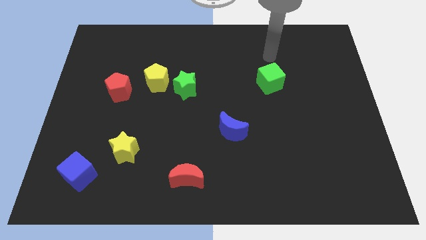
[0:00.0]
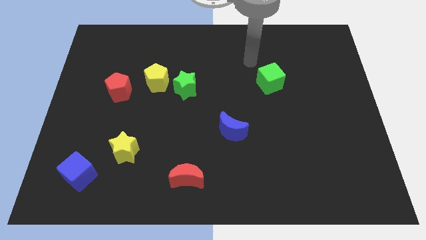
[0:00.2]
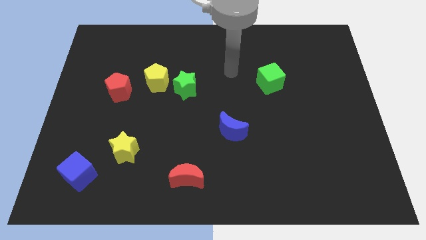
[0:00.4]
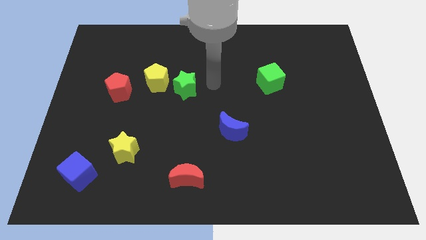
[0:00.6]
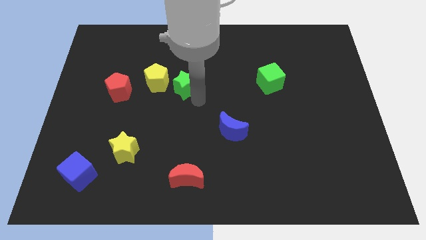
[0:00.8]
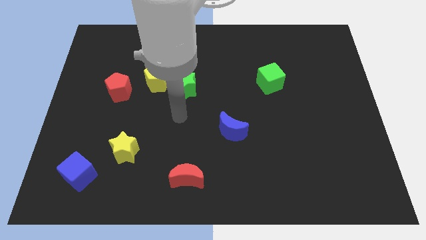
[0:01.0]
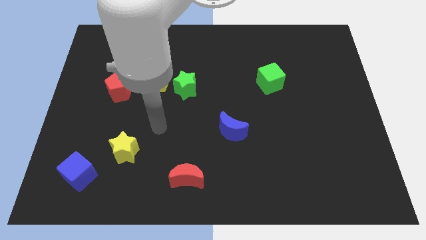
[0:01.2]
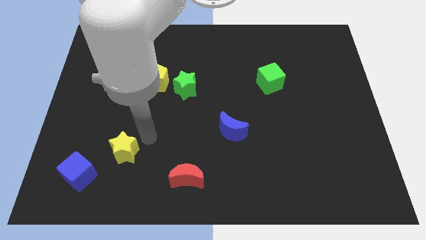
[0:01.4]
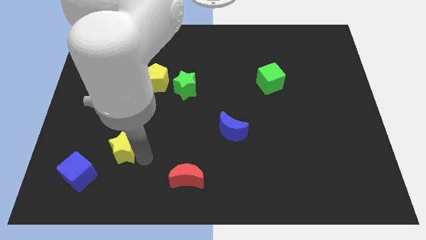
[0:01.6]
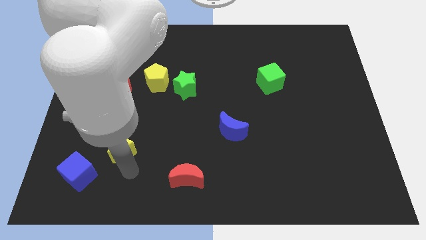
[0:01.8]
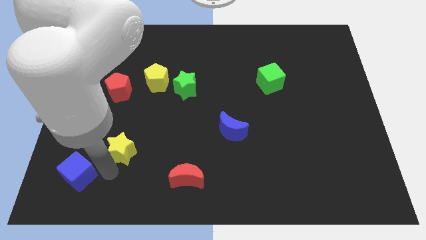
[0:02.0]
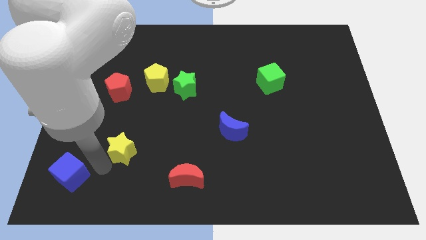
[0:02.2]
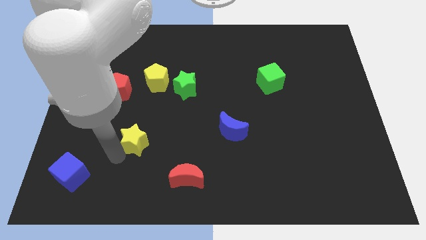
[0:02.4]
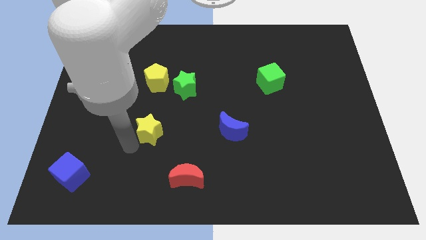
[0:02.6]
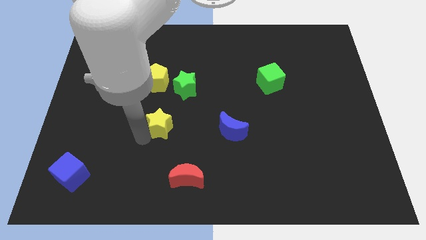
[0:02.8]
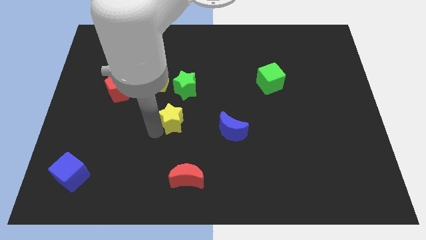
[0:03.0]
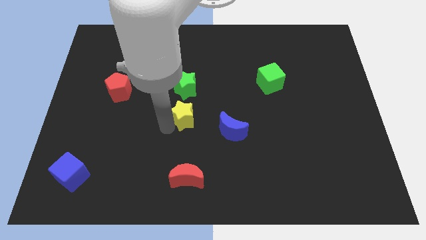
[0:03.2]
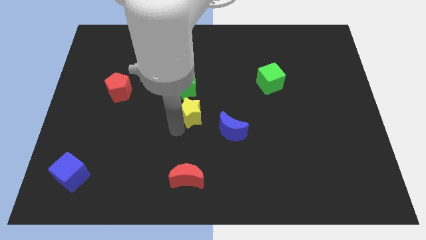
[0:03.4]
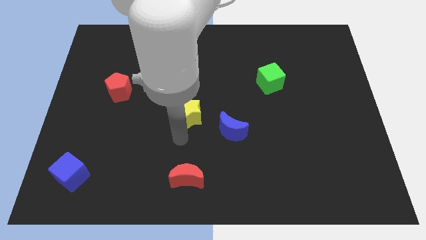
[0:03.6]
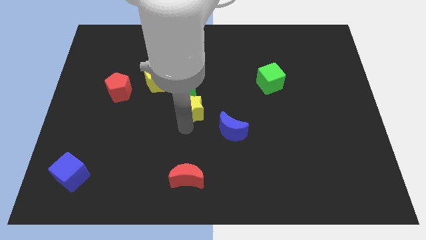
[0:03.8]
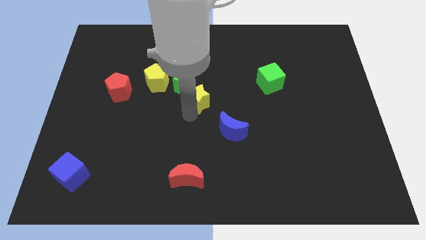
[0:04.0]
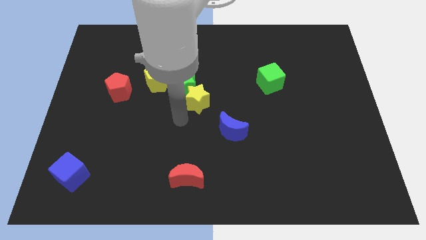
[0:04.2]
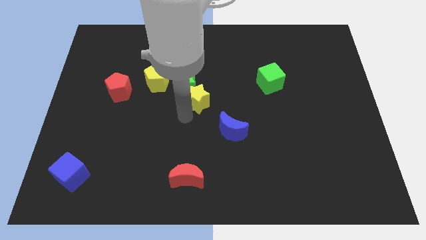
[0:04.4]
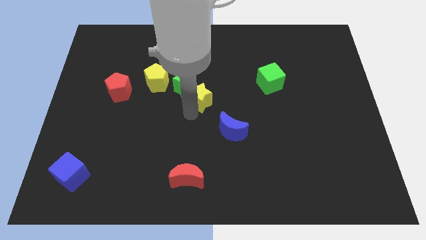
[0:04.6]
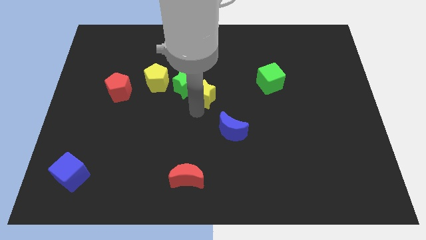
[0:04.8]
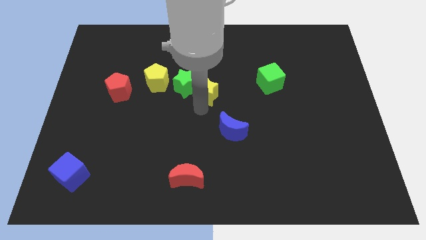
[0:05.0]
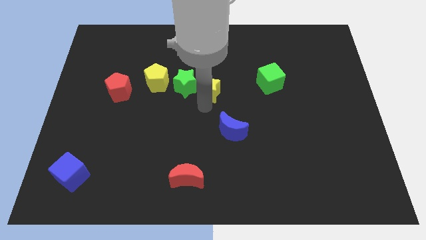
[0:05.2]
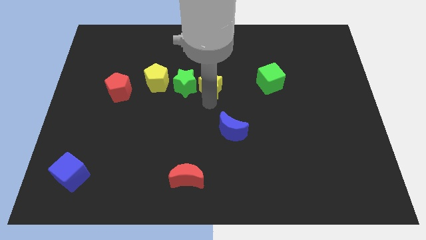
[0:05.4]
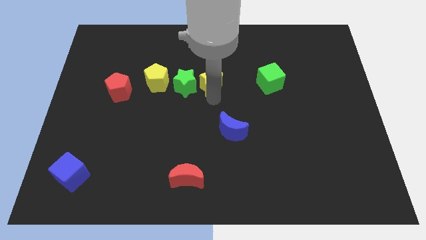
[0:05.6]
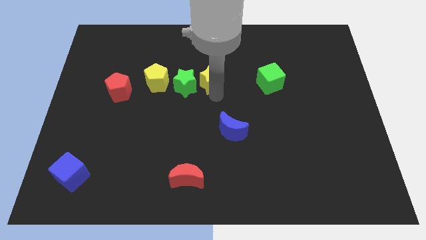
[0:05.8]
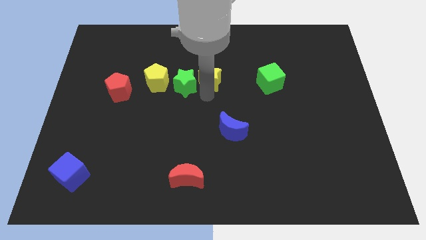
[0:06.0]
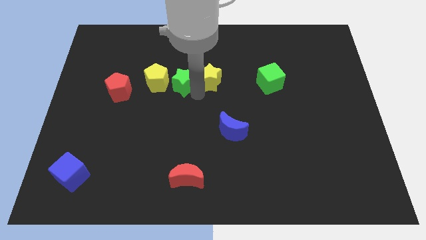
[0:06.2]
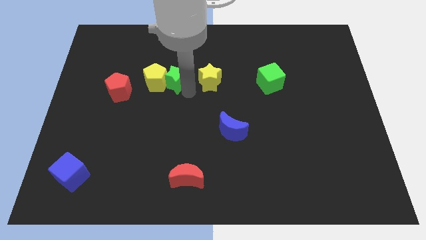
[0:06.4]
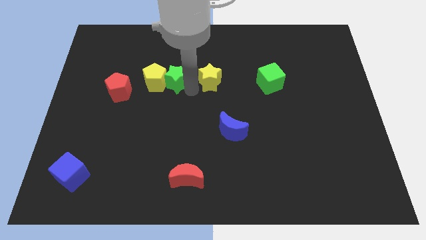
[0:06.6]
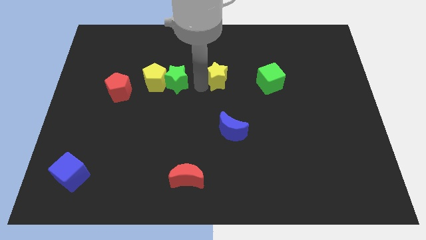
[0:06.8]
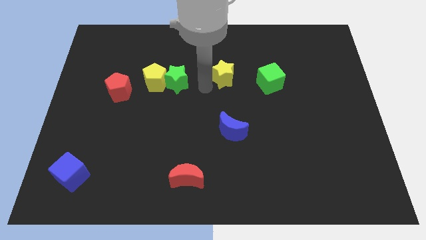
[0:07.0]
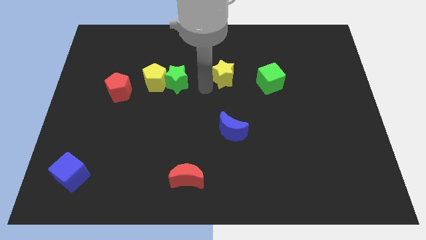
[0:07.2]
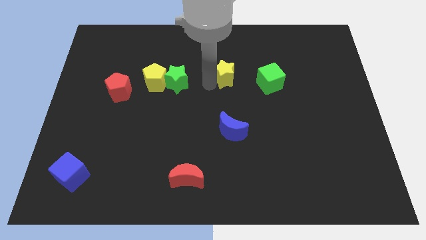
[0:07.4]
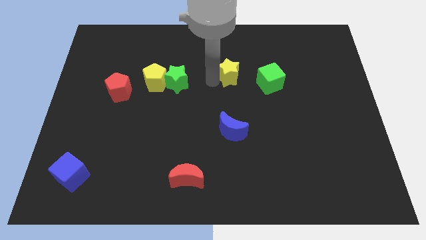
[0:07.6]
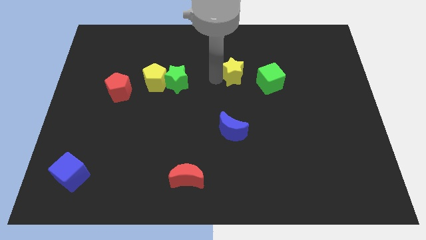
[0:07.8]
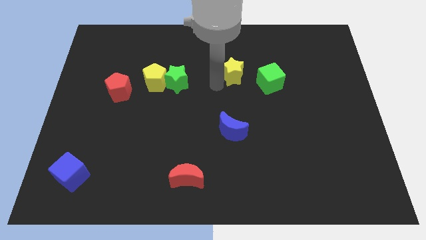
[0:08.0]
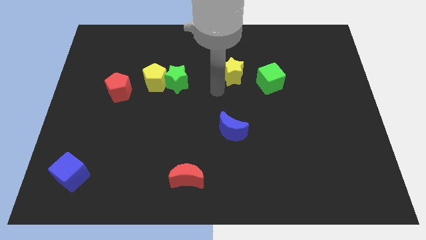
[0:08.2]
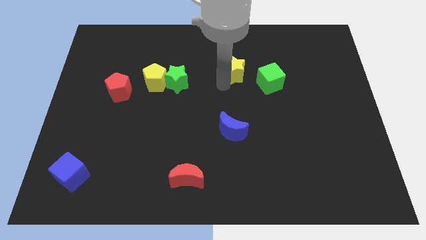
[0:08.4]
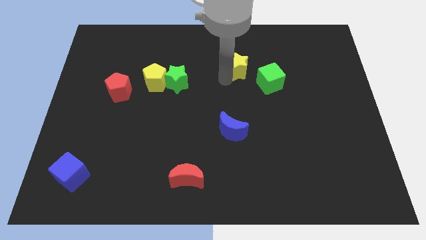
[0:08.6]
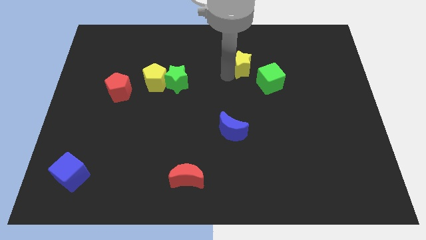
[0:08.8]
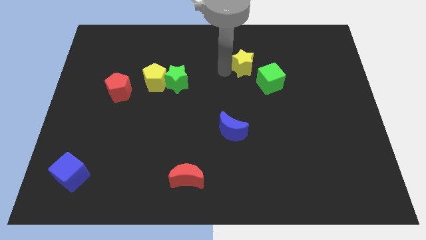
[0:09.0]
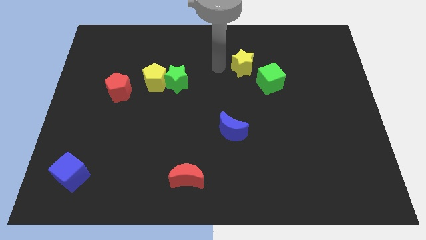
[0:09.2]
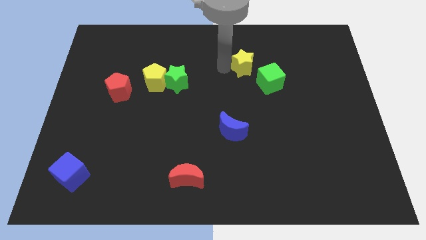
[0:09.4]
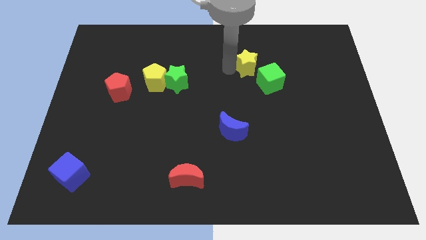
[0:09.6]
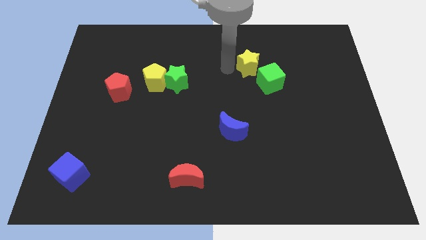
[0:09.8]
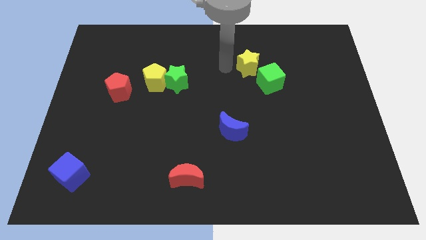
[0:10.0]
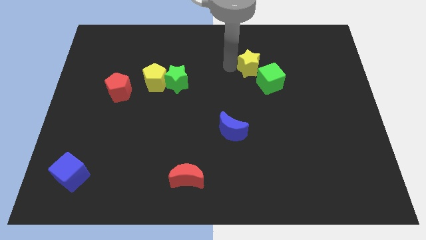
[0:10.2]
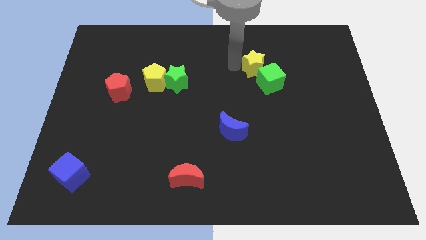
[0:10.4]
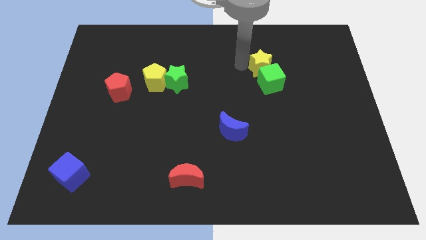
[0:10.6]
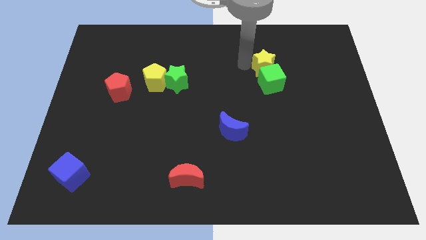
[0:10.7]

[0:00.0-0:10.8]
slide the yellow star diagonally up and to the right of the green cube
